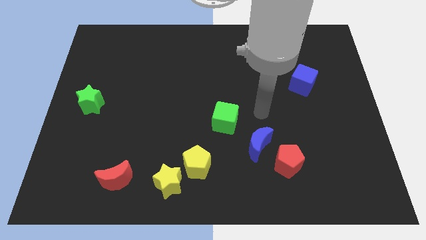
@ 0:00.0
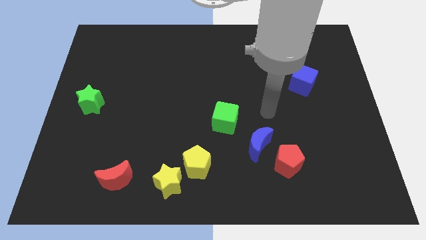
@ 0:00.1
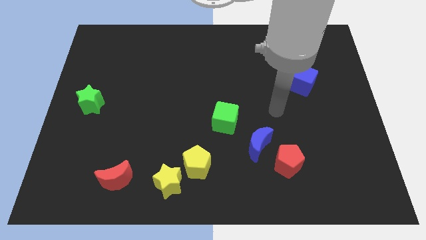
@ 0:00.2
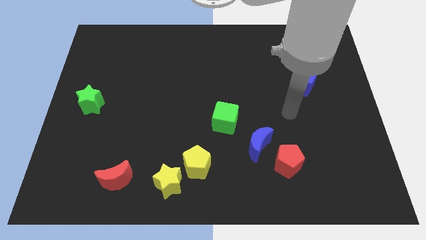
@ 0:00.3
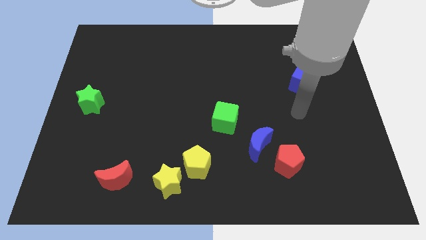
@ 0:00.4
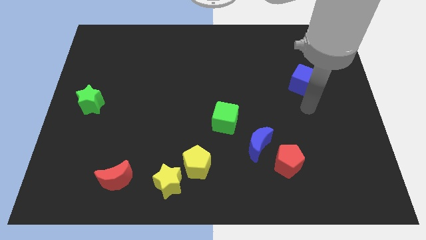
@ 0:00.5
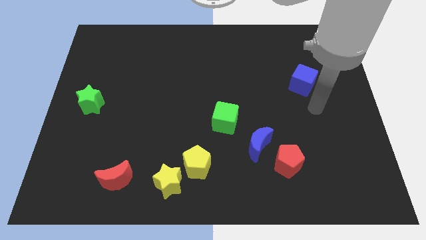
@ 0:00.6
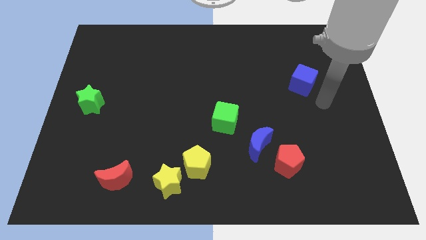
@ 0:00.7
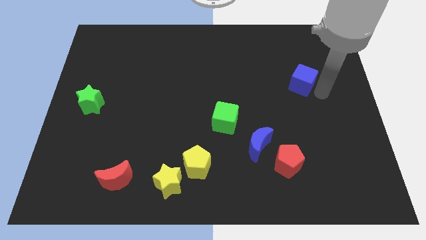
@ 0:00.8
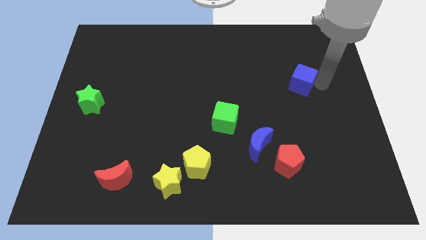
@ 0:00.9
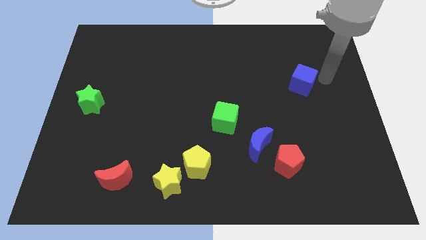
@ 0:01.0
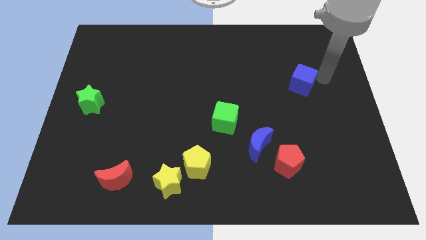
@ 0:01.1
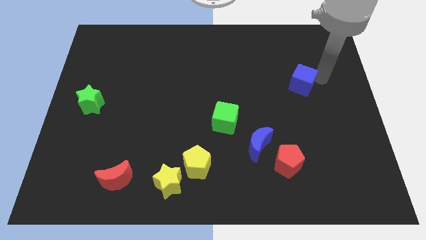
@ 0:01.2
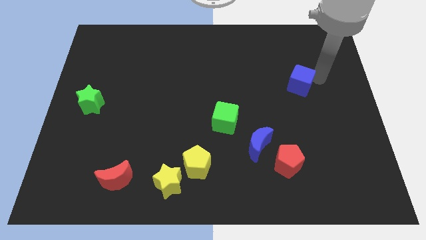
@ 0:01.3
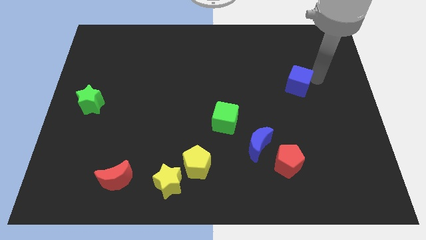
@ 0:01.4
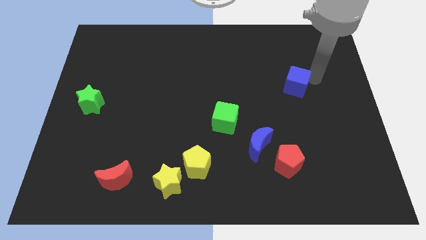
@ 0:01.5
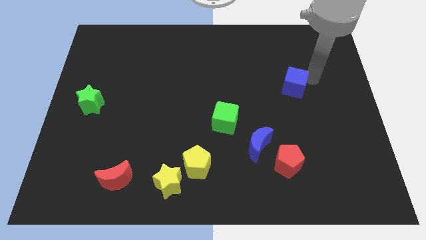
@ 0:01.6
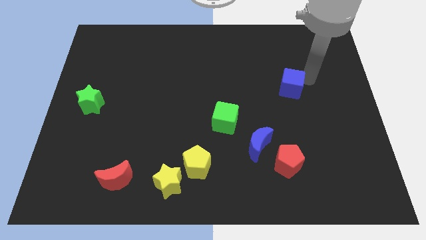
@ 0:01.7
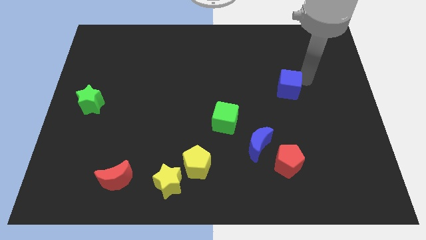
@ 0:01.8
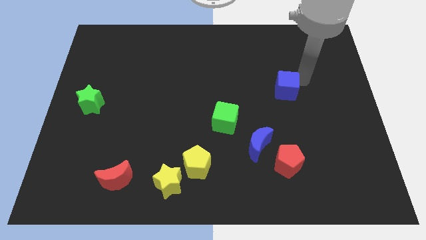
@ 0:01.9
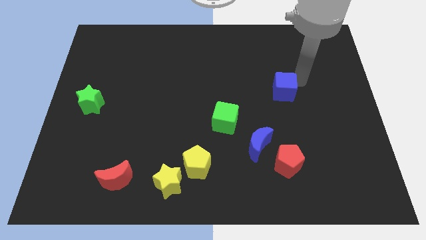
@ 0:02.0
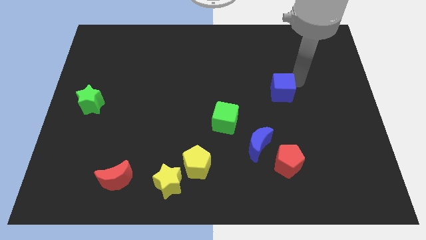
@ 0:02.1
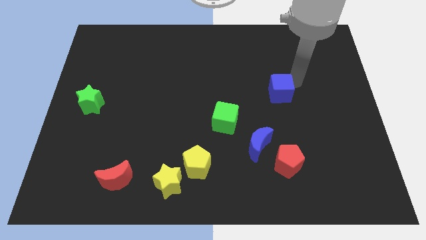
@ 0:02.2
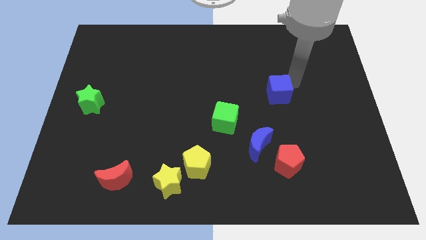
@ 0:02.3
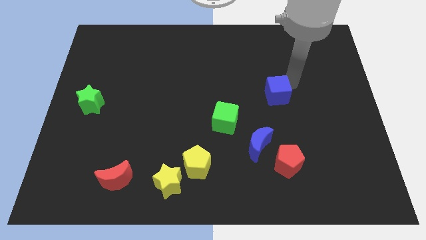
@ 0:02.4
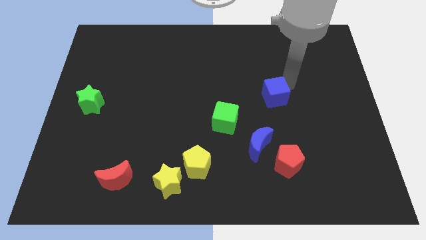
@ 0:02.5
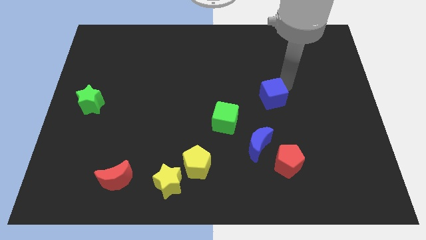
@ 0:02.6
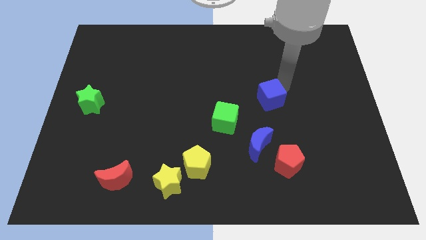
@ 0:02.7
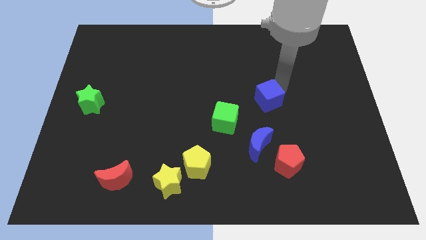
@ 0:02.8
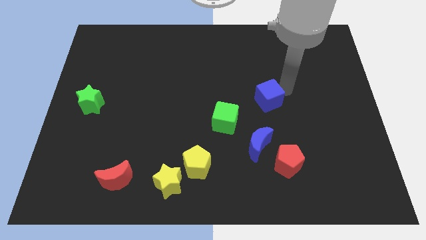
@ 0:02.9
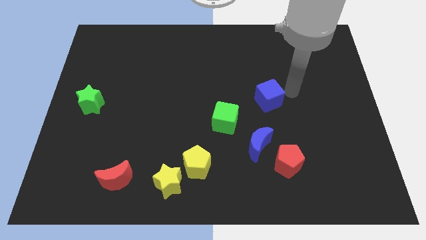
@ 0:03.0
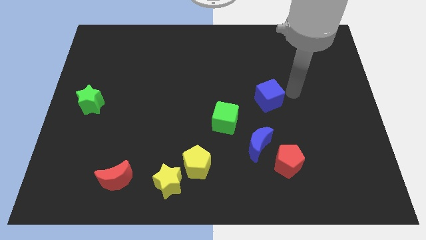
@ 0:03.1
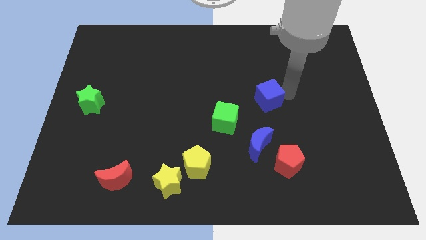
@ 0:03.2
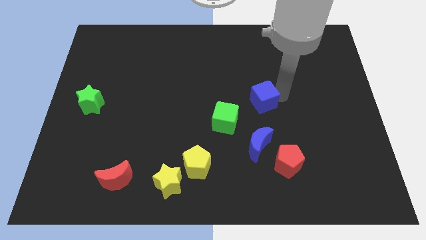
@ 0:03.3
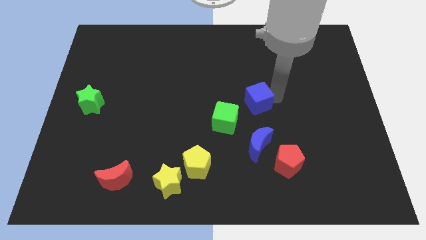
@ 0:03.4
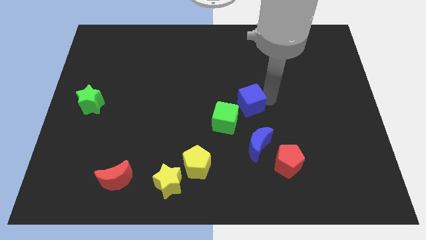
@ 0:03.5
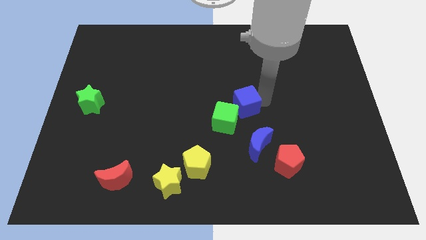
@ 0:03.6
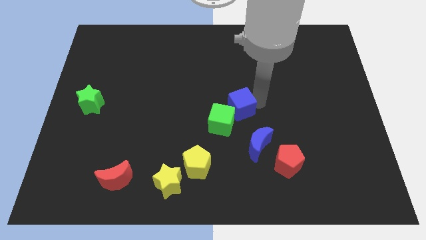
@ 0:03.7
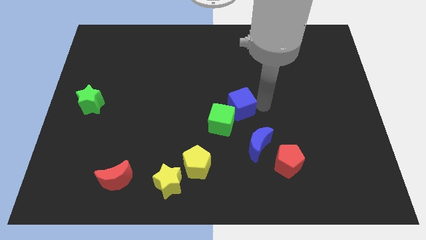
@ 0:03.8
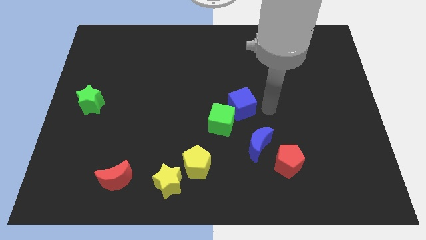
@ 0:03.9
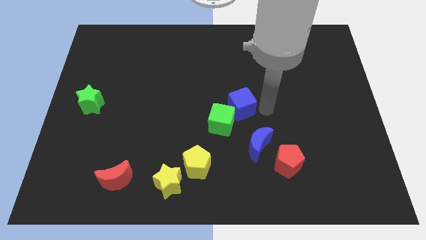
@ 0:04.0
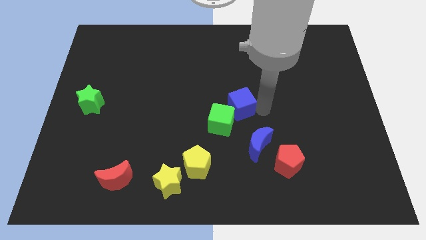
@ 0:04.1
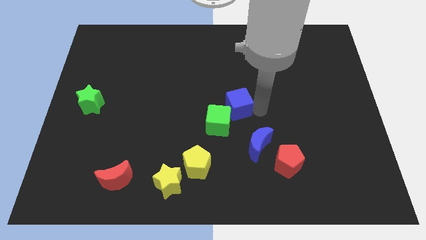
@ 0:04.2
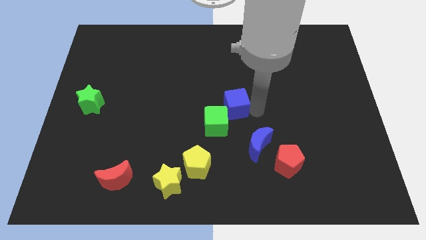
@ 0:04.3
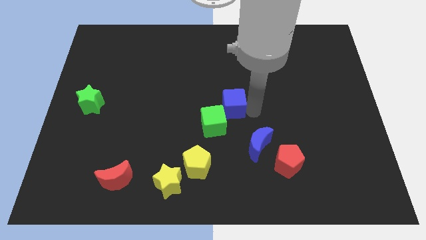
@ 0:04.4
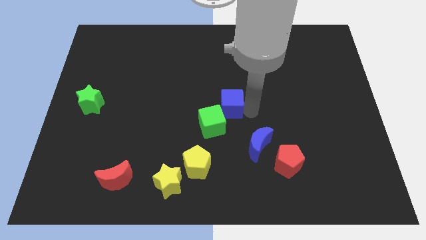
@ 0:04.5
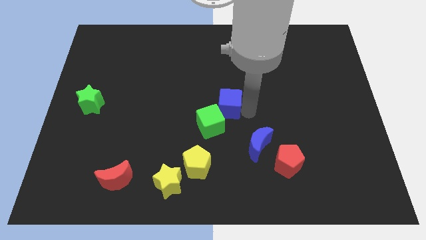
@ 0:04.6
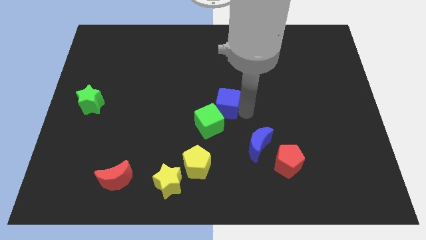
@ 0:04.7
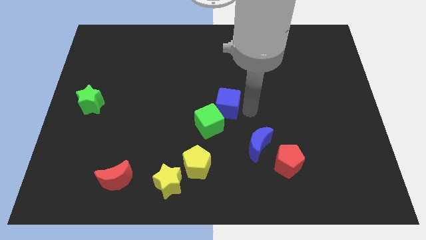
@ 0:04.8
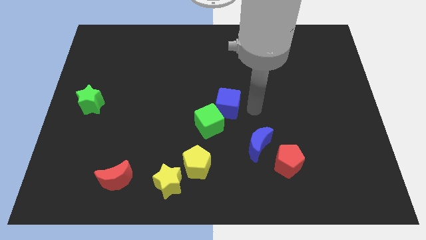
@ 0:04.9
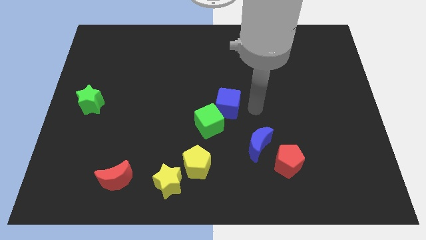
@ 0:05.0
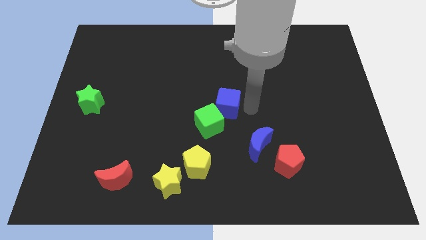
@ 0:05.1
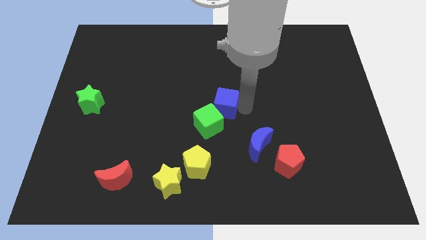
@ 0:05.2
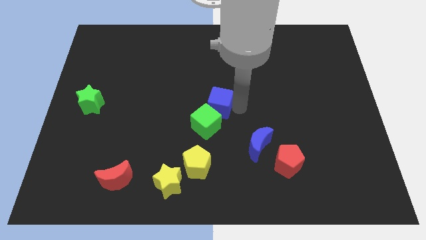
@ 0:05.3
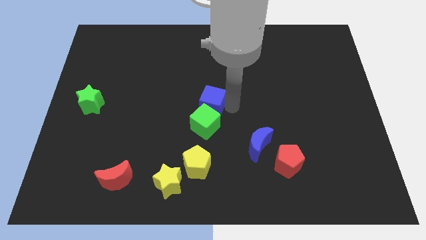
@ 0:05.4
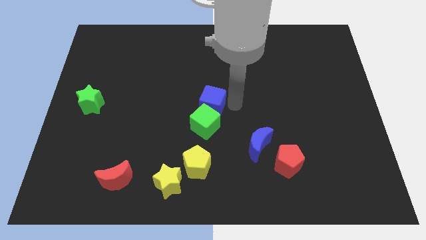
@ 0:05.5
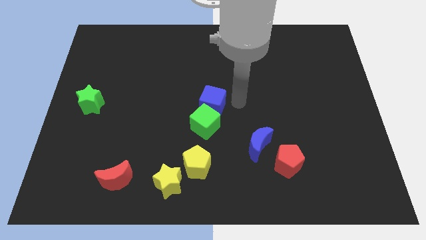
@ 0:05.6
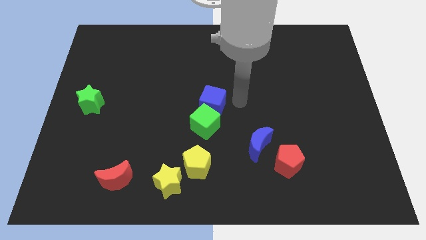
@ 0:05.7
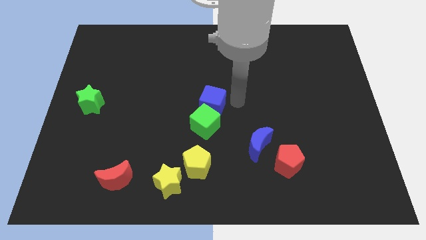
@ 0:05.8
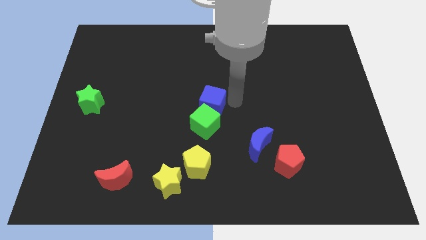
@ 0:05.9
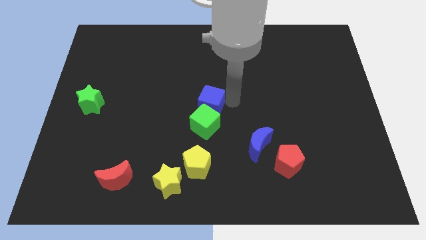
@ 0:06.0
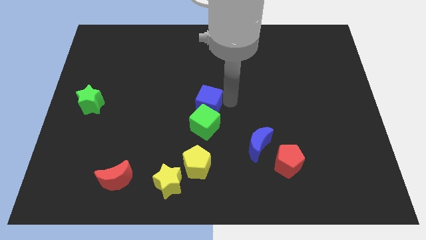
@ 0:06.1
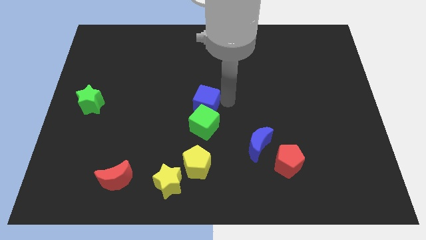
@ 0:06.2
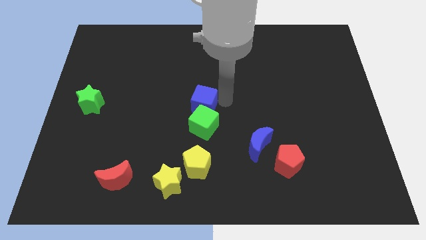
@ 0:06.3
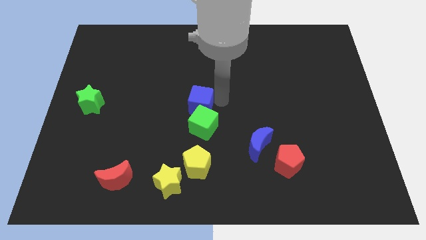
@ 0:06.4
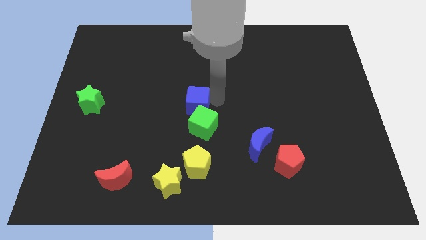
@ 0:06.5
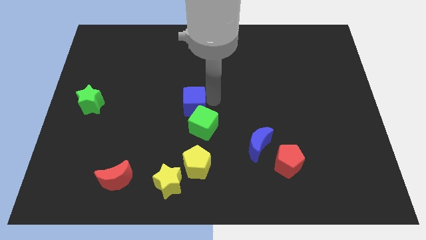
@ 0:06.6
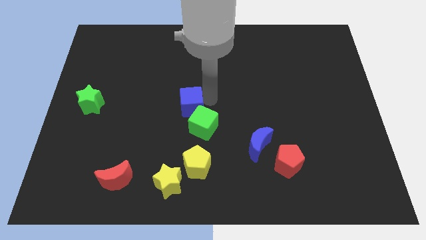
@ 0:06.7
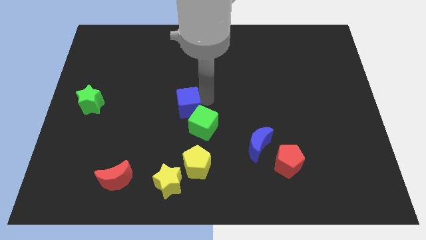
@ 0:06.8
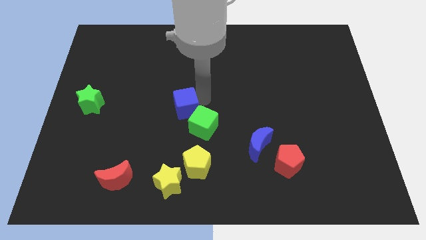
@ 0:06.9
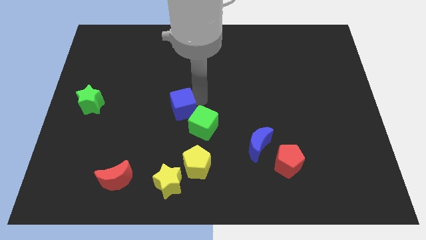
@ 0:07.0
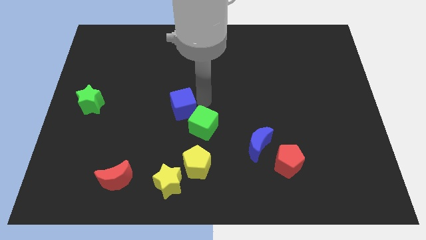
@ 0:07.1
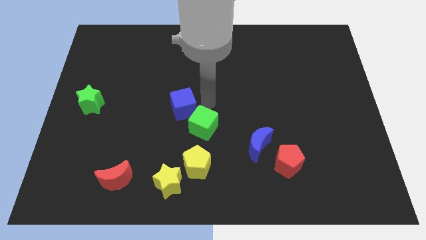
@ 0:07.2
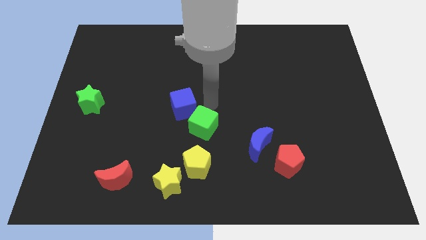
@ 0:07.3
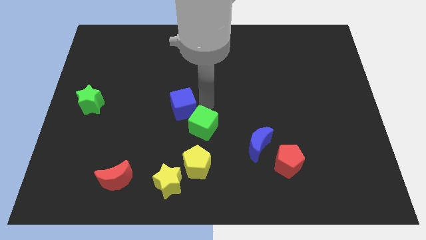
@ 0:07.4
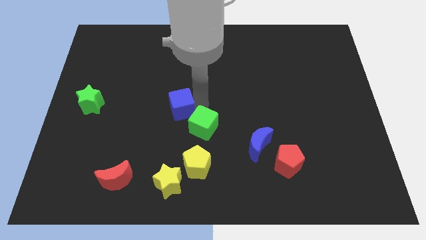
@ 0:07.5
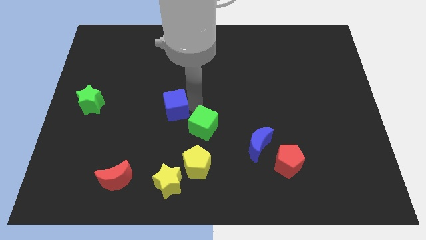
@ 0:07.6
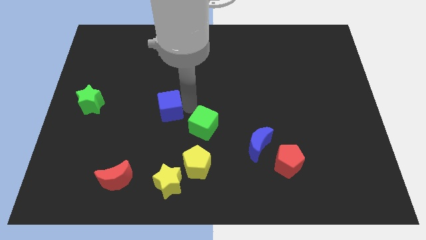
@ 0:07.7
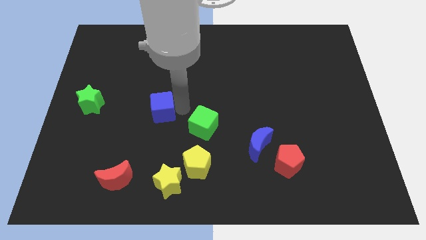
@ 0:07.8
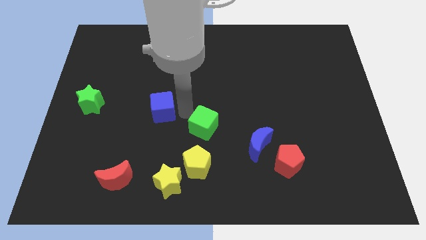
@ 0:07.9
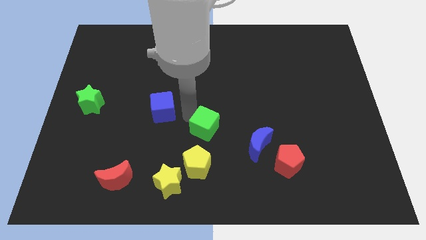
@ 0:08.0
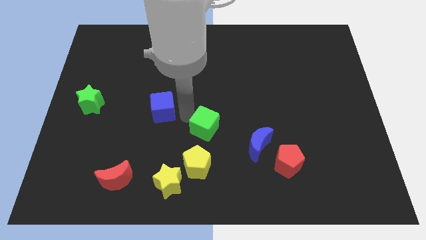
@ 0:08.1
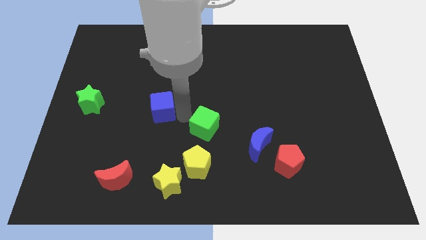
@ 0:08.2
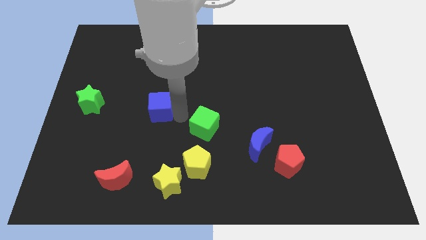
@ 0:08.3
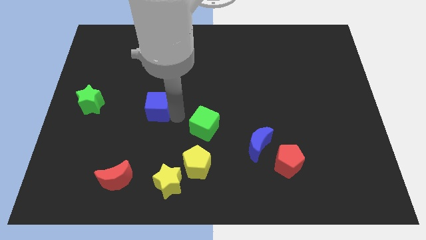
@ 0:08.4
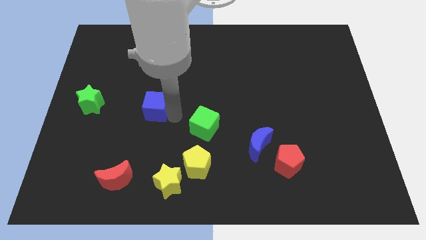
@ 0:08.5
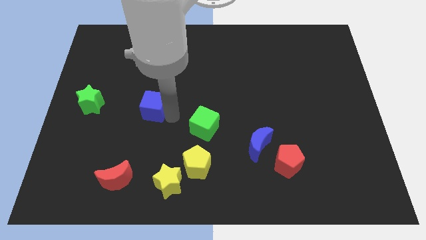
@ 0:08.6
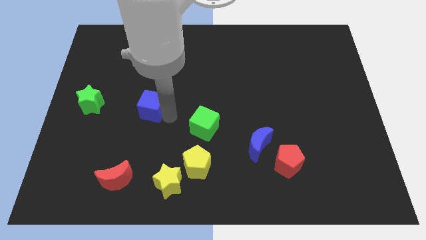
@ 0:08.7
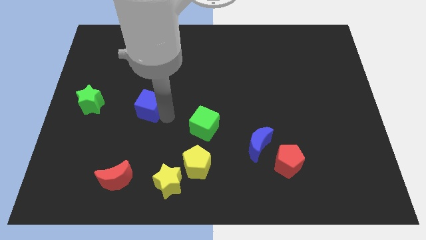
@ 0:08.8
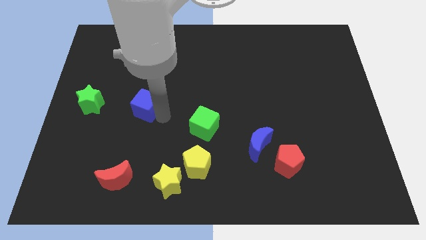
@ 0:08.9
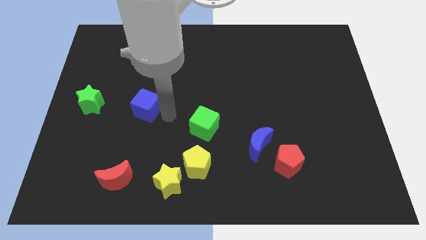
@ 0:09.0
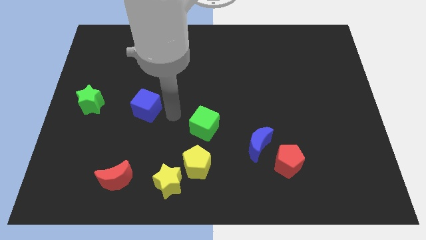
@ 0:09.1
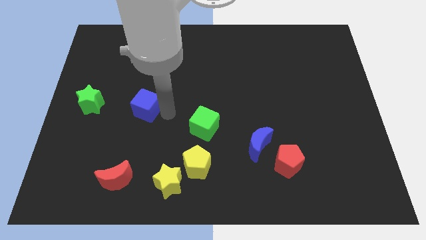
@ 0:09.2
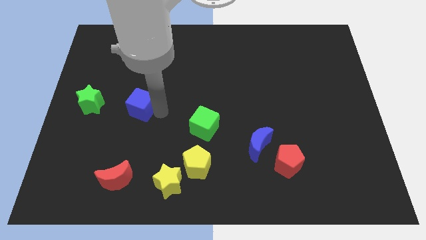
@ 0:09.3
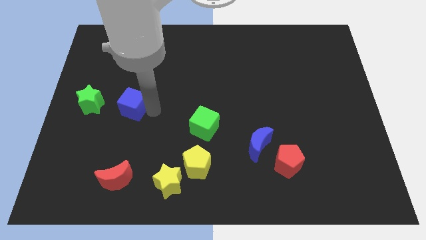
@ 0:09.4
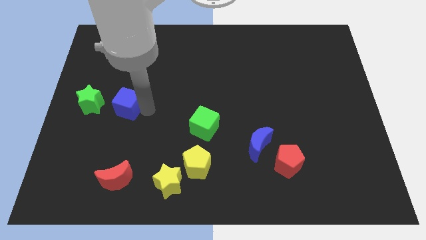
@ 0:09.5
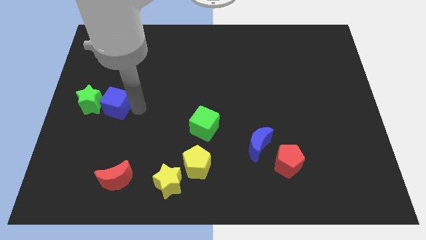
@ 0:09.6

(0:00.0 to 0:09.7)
move the blue cube close to the green star
